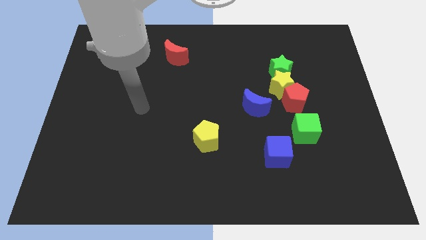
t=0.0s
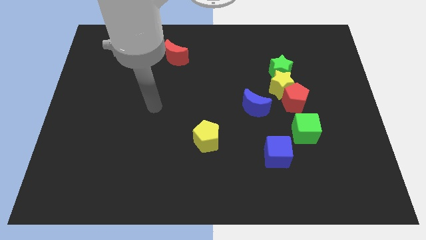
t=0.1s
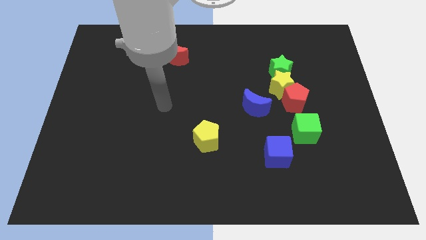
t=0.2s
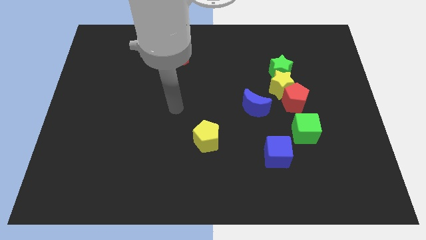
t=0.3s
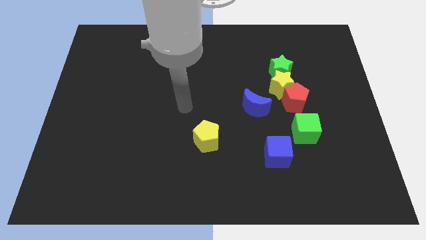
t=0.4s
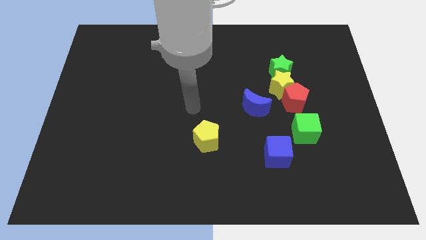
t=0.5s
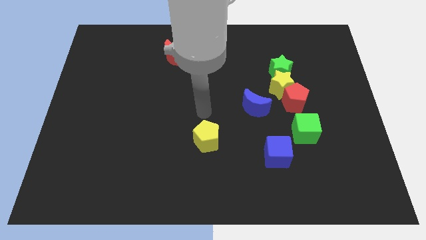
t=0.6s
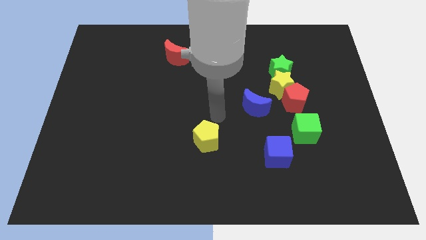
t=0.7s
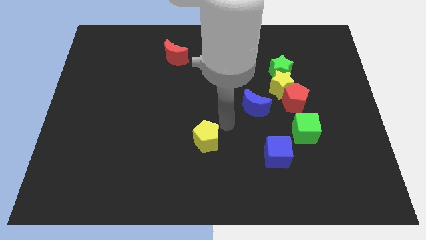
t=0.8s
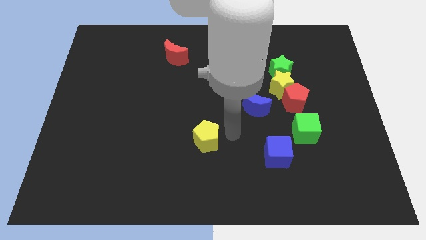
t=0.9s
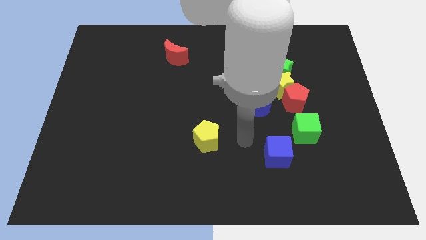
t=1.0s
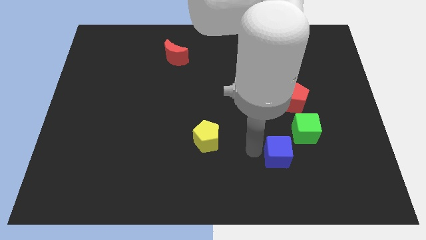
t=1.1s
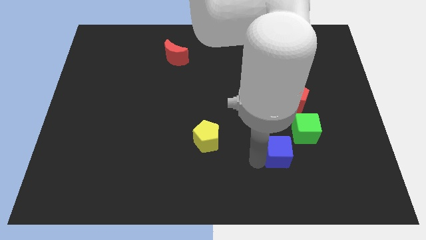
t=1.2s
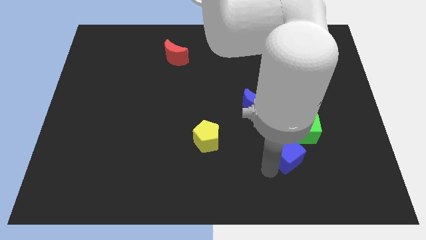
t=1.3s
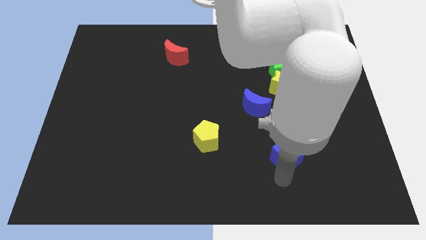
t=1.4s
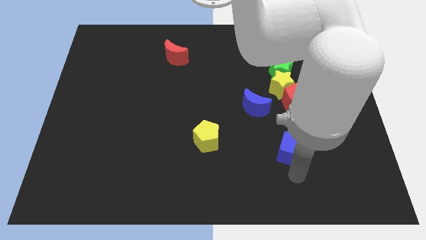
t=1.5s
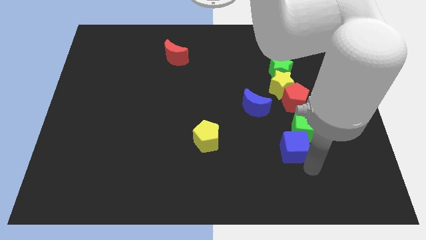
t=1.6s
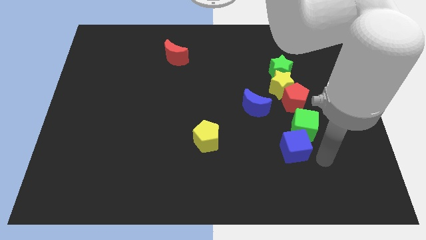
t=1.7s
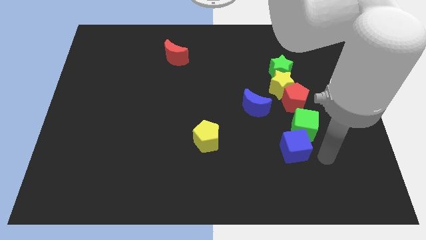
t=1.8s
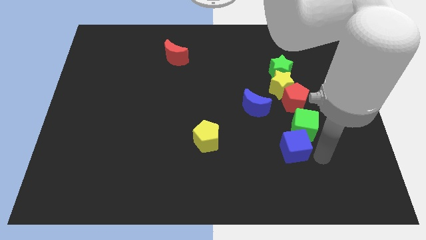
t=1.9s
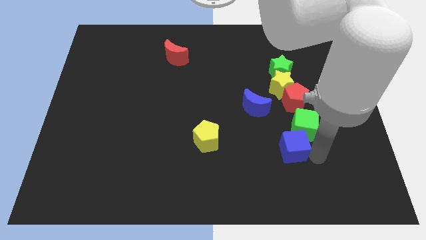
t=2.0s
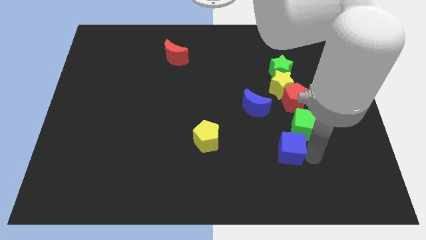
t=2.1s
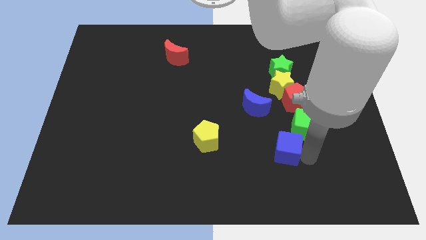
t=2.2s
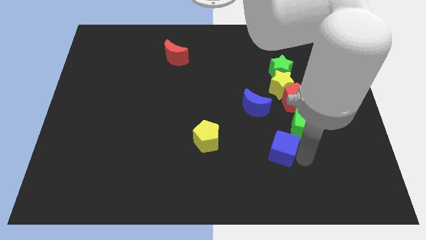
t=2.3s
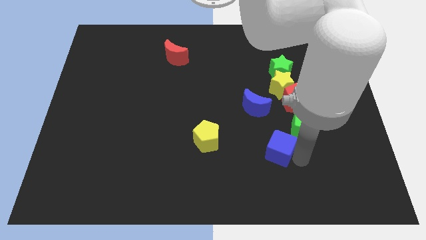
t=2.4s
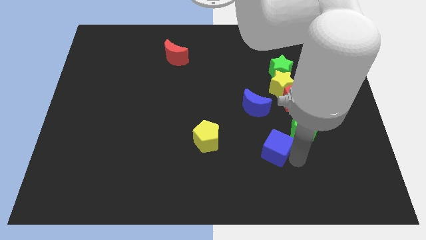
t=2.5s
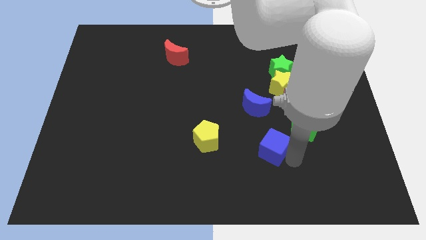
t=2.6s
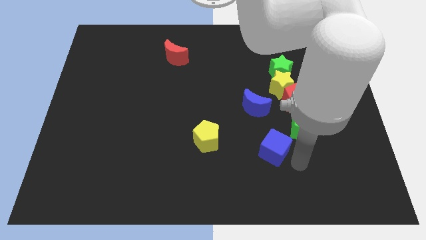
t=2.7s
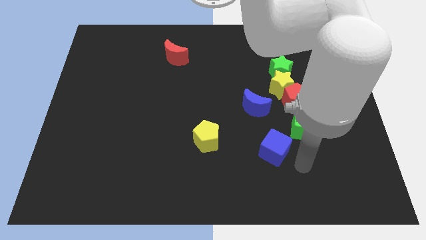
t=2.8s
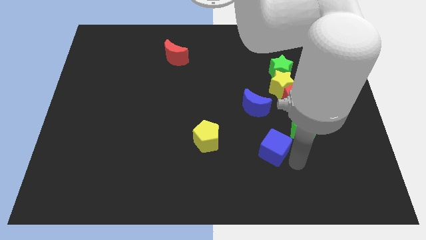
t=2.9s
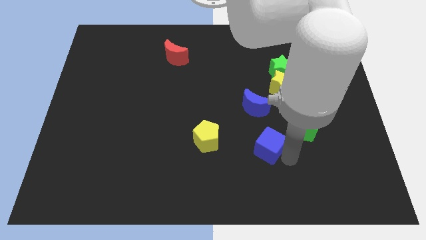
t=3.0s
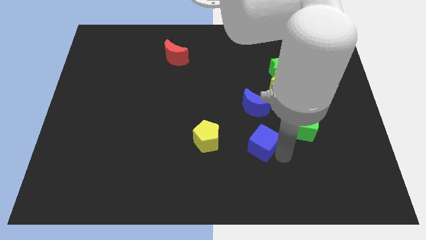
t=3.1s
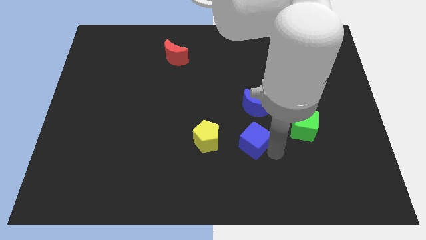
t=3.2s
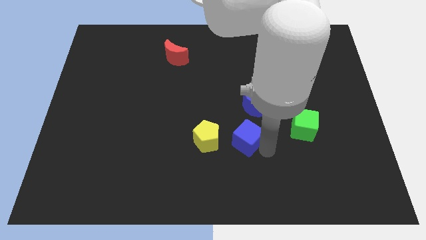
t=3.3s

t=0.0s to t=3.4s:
slide the blue cube a little bit up and to the left diagonally

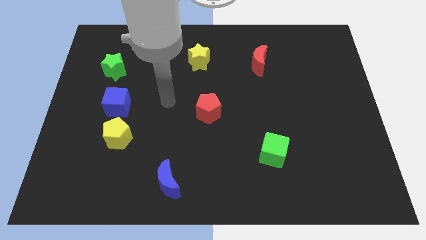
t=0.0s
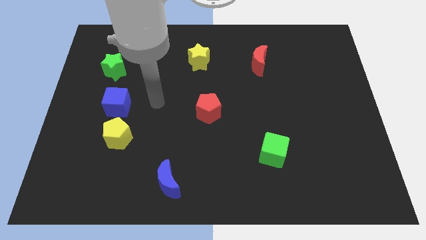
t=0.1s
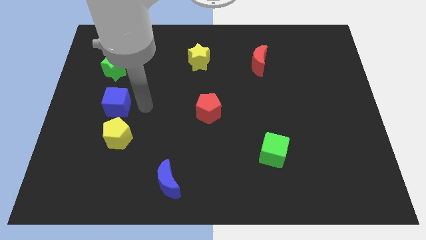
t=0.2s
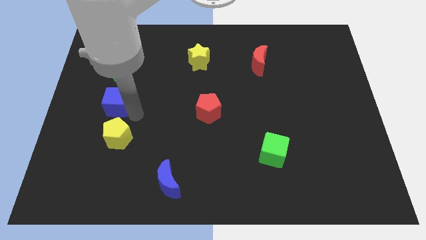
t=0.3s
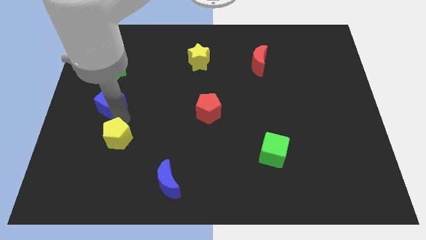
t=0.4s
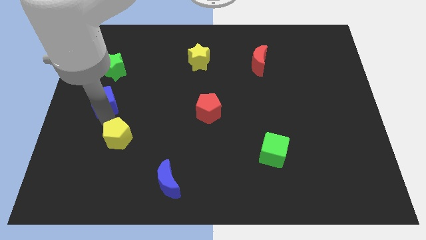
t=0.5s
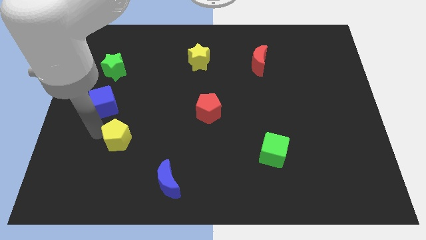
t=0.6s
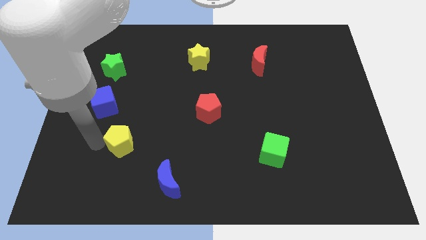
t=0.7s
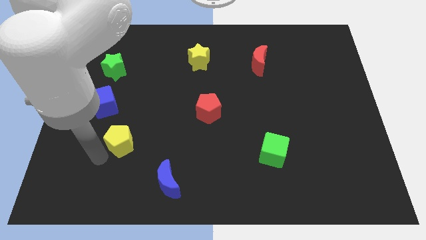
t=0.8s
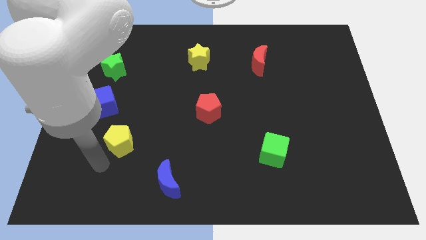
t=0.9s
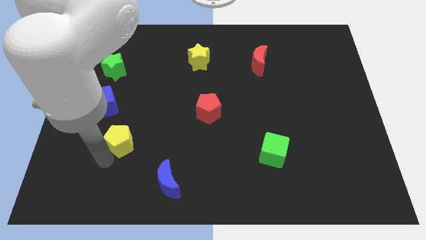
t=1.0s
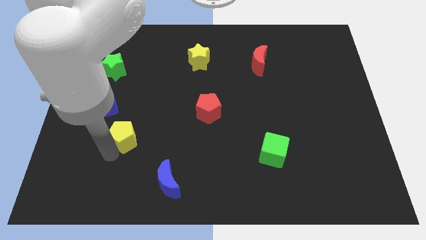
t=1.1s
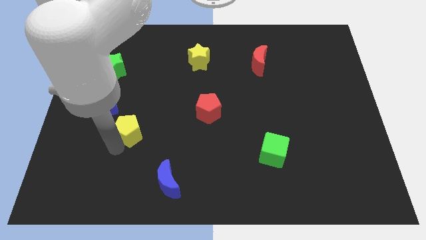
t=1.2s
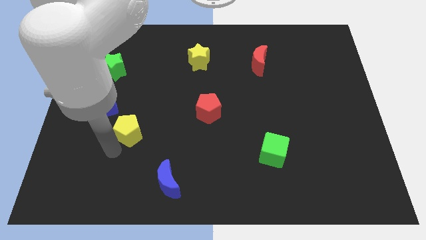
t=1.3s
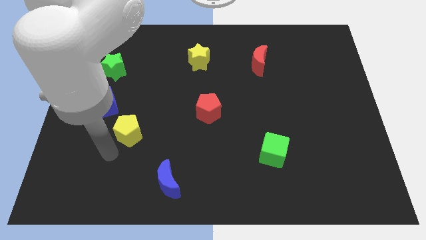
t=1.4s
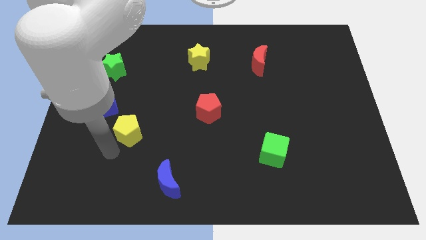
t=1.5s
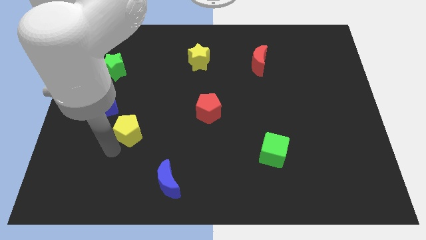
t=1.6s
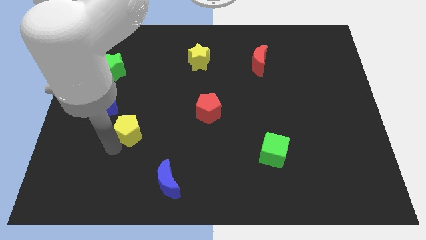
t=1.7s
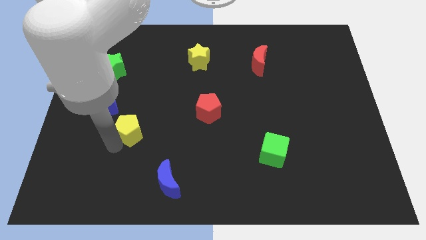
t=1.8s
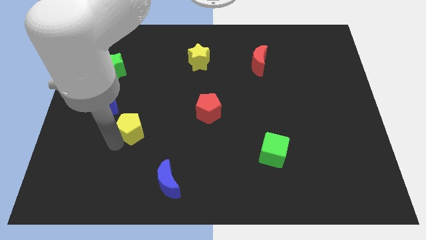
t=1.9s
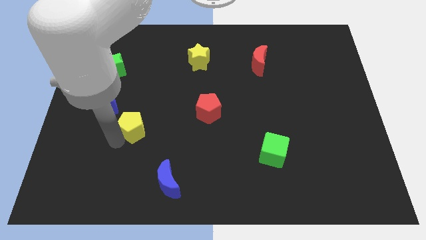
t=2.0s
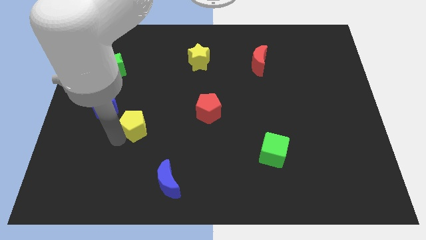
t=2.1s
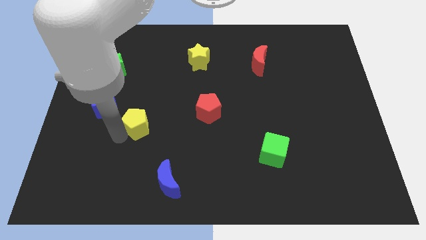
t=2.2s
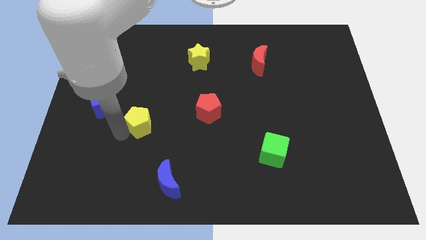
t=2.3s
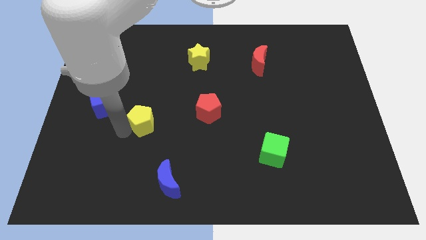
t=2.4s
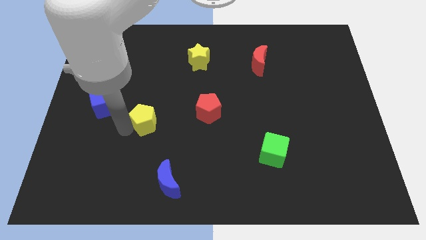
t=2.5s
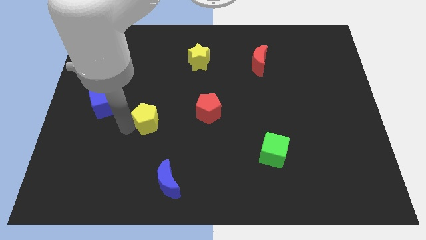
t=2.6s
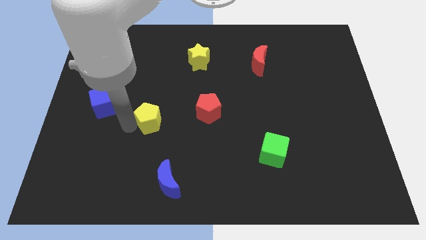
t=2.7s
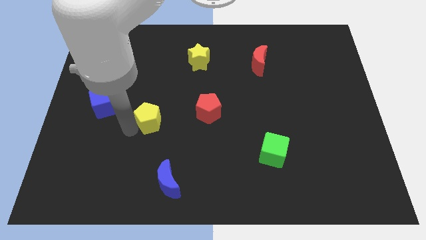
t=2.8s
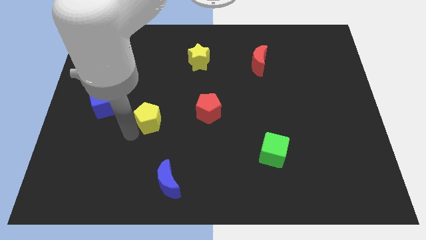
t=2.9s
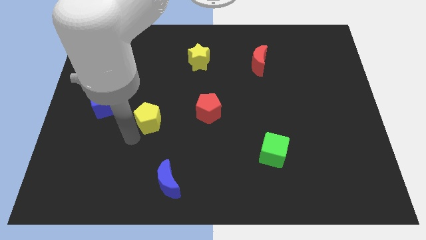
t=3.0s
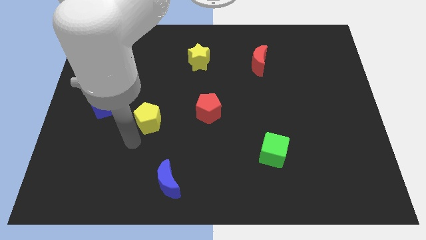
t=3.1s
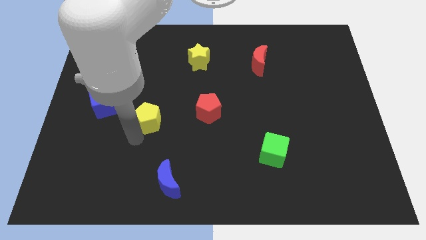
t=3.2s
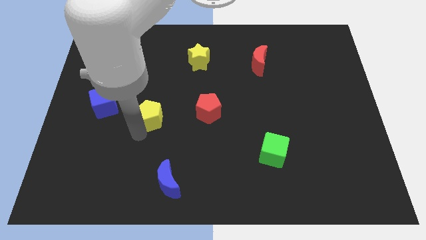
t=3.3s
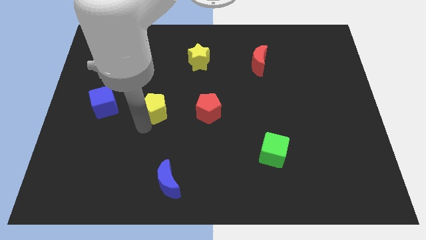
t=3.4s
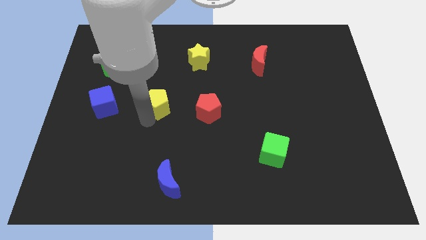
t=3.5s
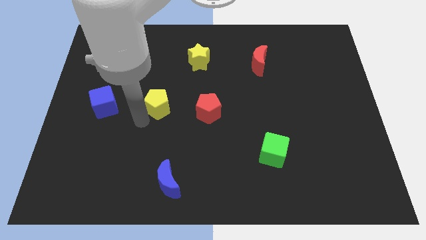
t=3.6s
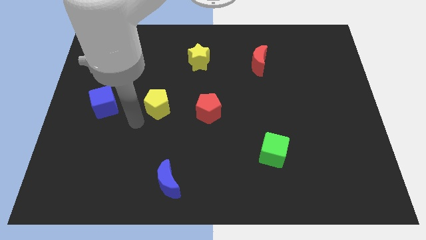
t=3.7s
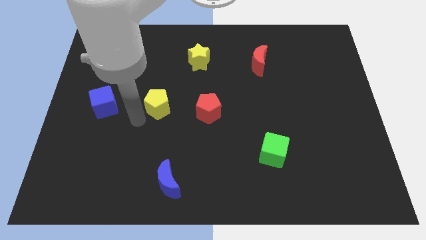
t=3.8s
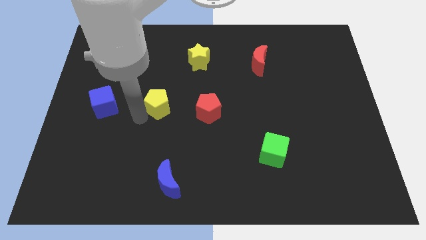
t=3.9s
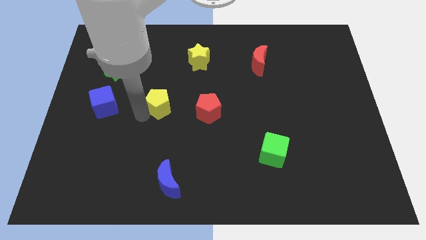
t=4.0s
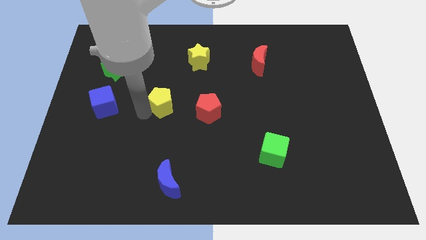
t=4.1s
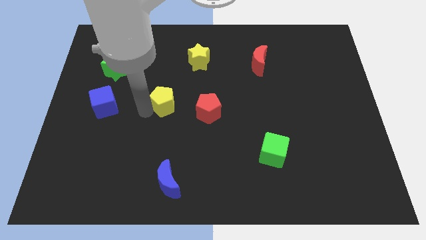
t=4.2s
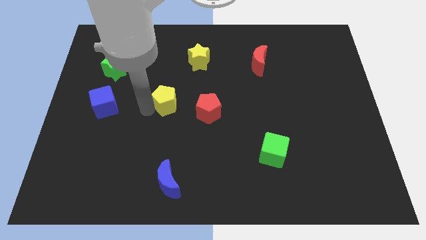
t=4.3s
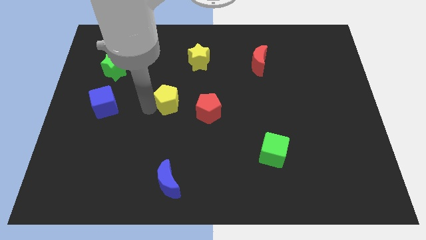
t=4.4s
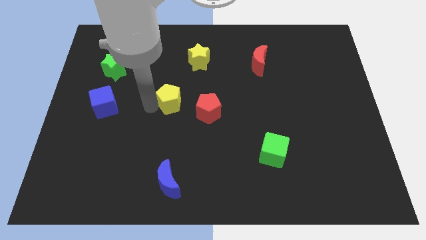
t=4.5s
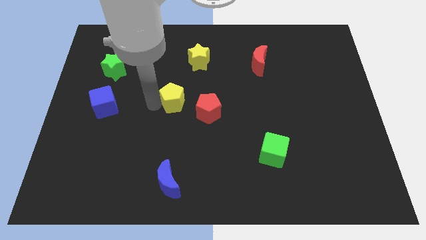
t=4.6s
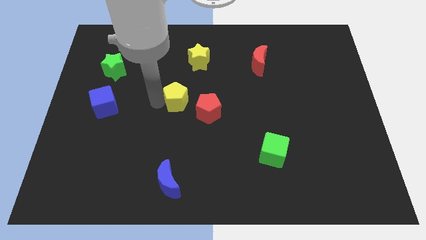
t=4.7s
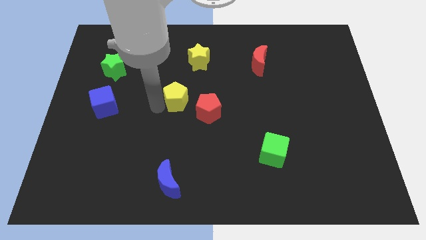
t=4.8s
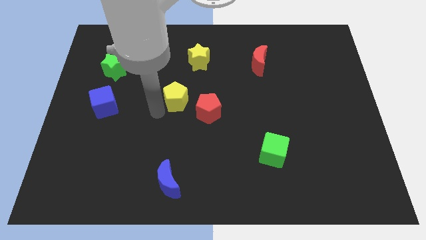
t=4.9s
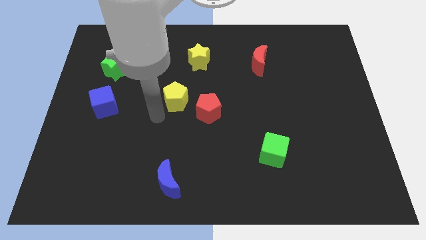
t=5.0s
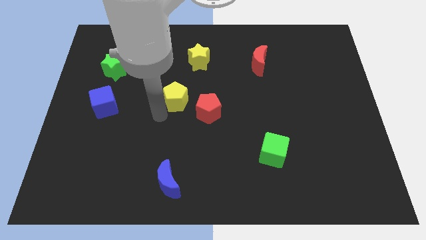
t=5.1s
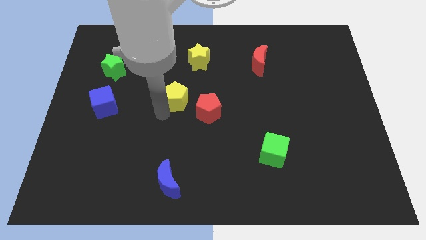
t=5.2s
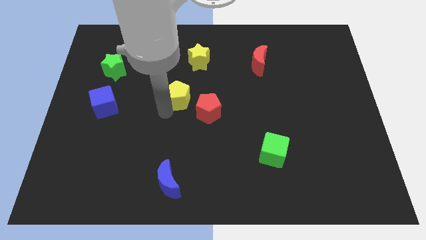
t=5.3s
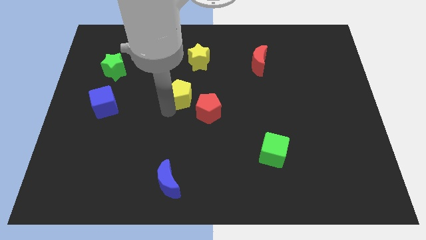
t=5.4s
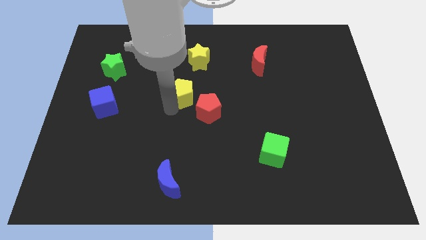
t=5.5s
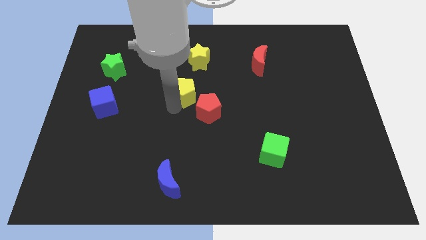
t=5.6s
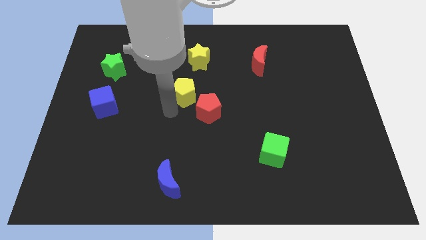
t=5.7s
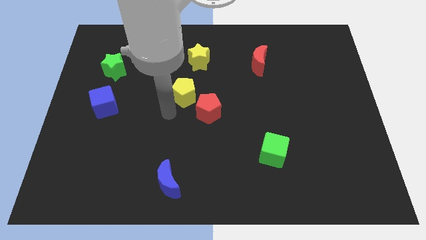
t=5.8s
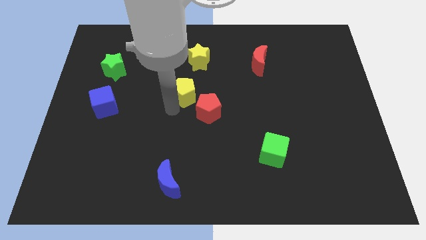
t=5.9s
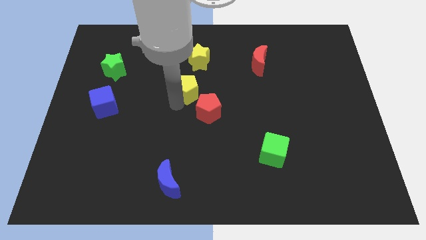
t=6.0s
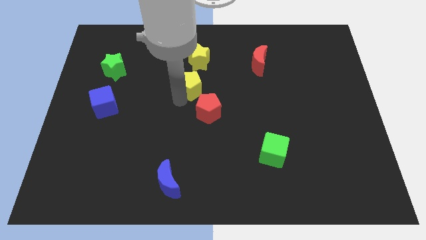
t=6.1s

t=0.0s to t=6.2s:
push the yellow pentagon up and right diagonally
